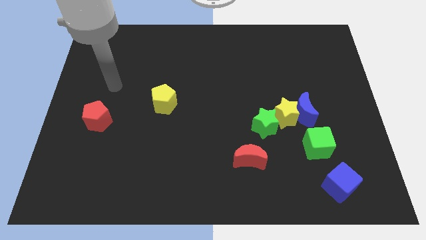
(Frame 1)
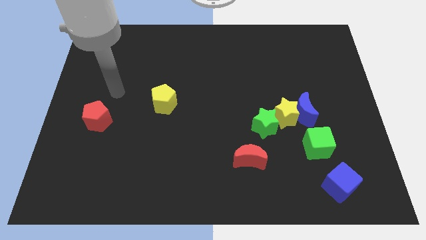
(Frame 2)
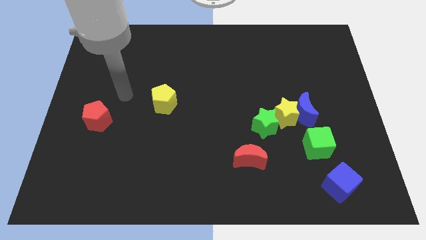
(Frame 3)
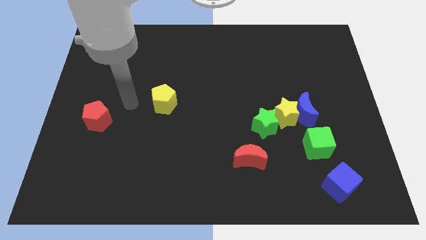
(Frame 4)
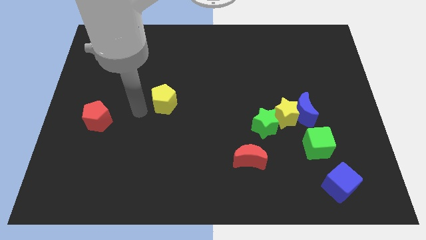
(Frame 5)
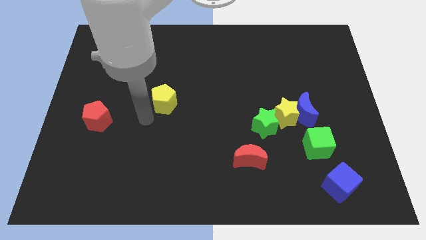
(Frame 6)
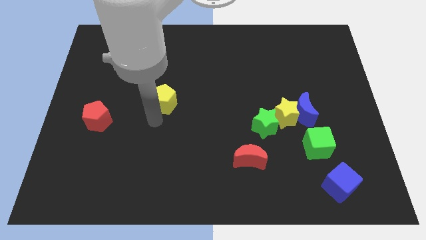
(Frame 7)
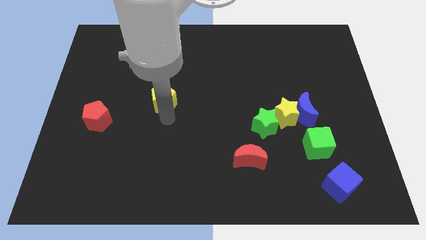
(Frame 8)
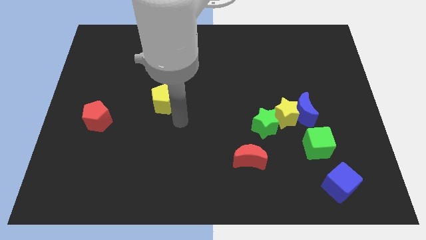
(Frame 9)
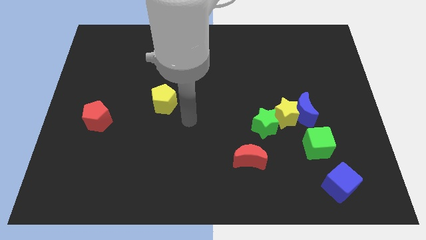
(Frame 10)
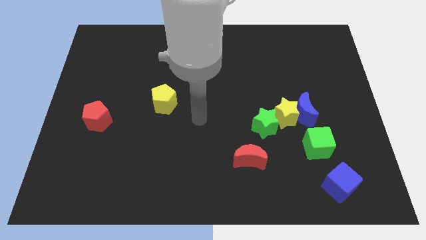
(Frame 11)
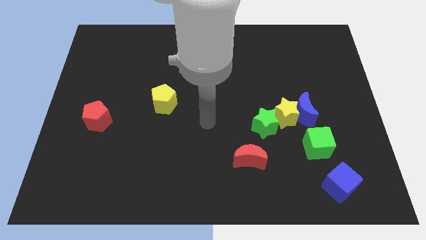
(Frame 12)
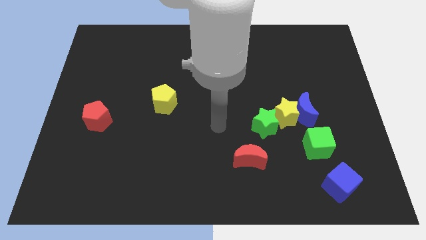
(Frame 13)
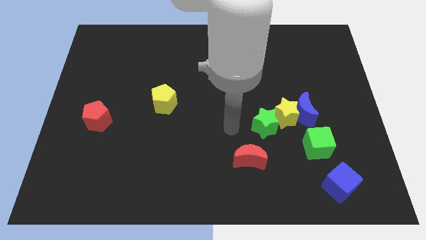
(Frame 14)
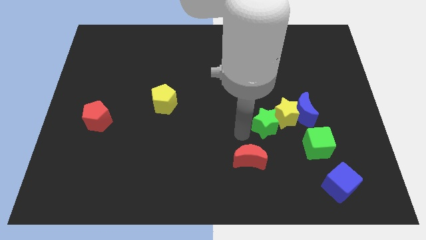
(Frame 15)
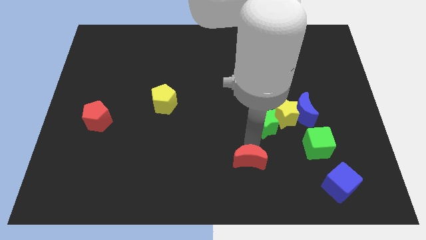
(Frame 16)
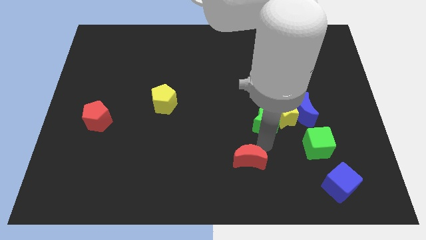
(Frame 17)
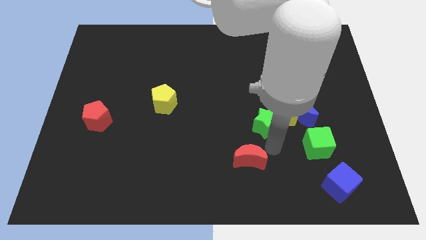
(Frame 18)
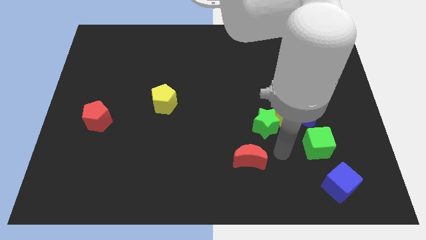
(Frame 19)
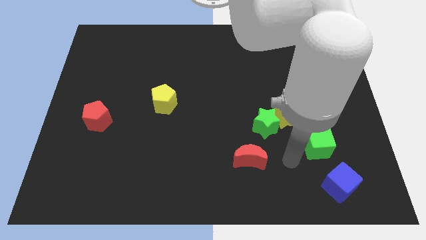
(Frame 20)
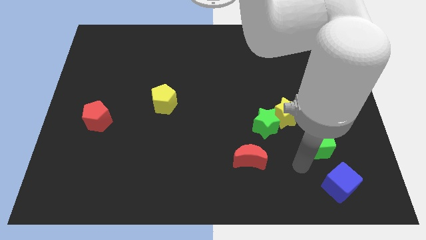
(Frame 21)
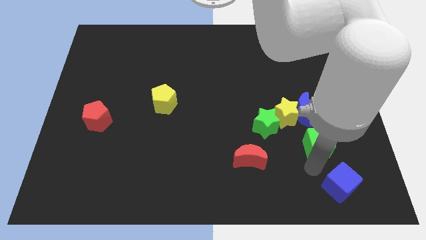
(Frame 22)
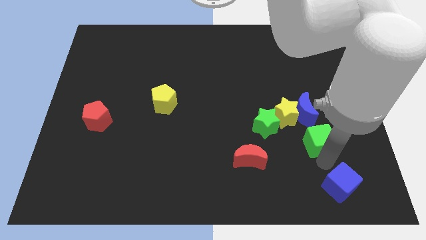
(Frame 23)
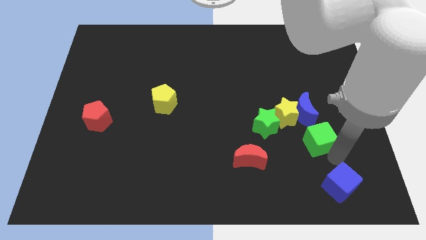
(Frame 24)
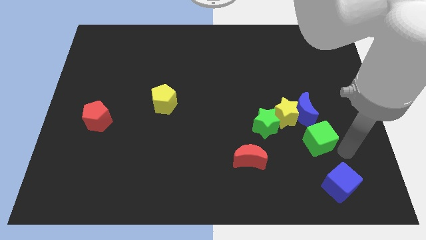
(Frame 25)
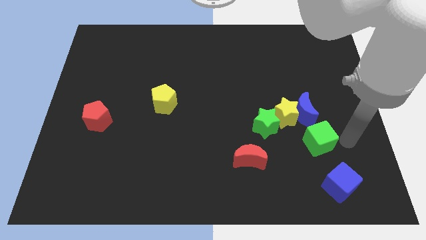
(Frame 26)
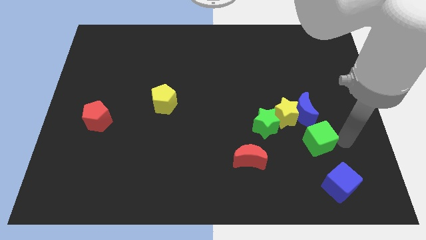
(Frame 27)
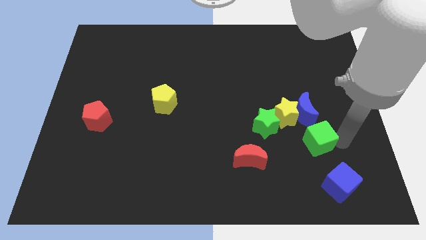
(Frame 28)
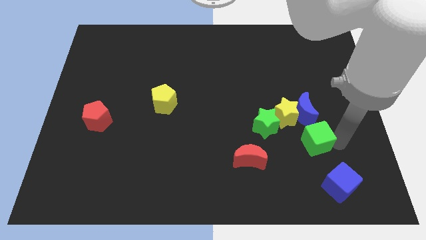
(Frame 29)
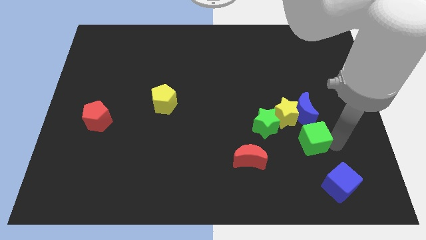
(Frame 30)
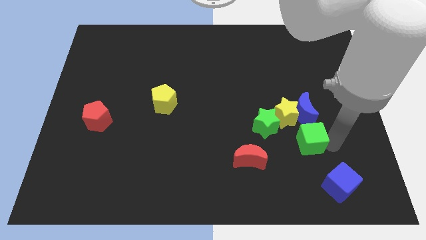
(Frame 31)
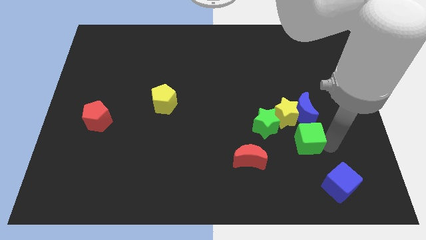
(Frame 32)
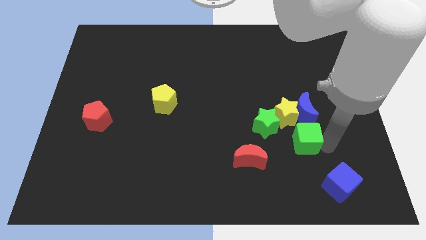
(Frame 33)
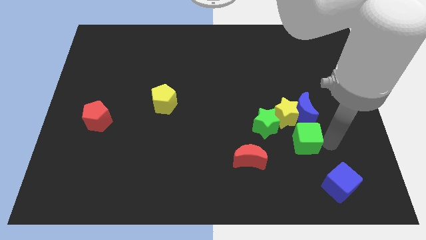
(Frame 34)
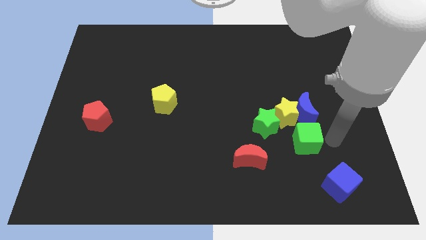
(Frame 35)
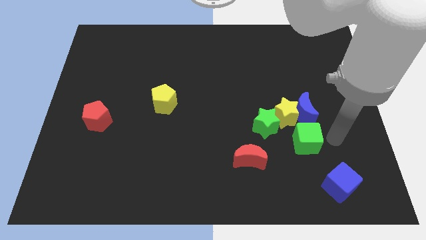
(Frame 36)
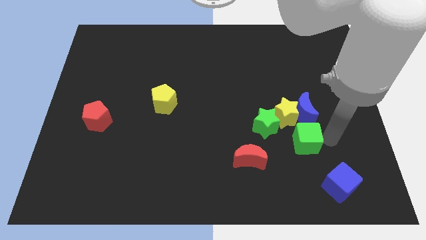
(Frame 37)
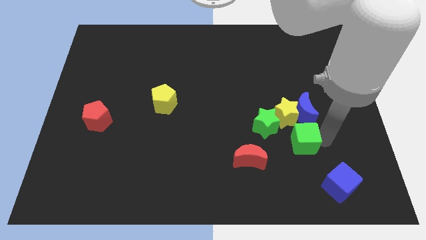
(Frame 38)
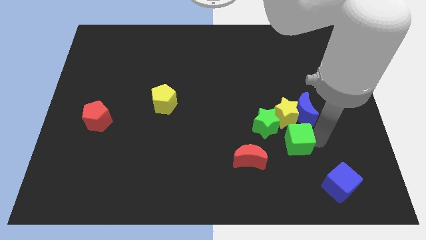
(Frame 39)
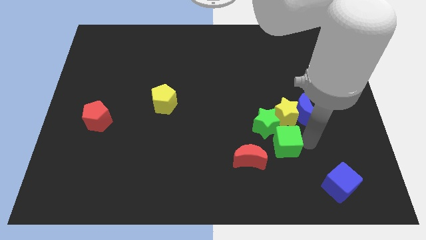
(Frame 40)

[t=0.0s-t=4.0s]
slide the green cube left a bit

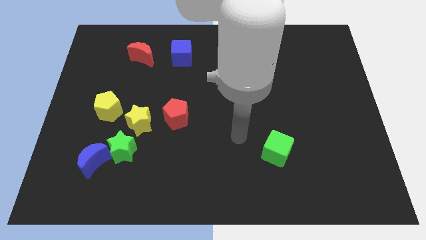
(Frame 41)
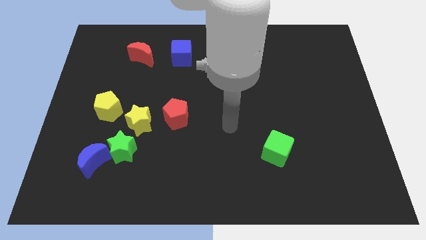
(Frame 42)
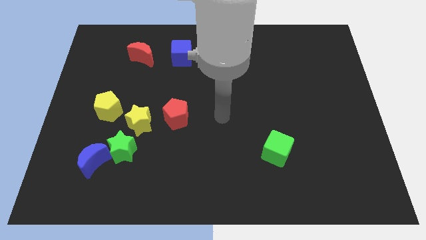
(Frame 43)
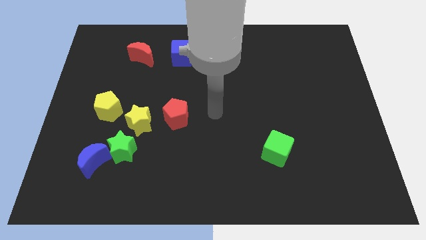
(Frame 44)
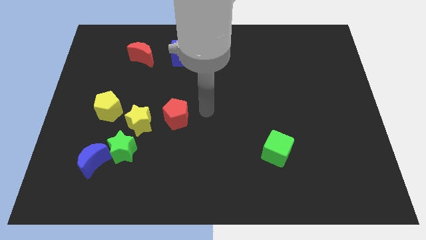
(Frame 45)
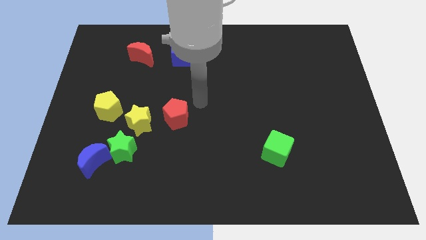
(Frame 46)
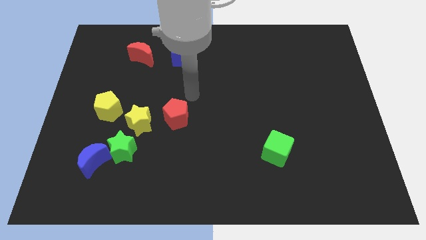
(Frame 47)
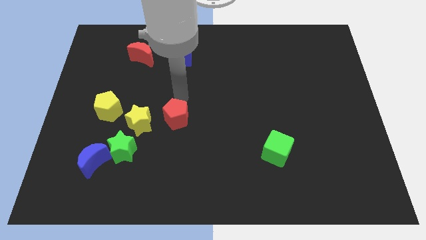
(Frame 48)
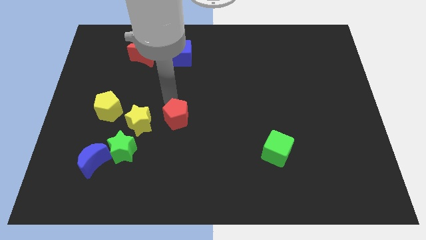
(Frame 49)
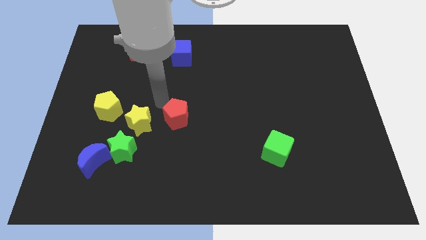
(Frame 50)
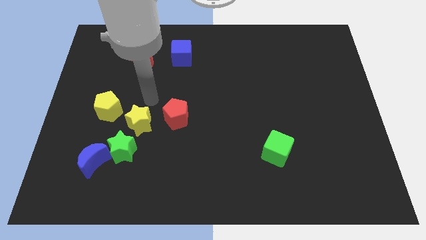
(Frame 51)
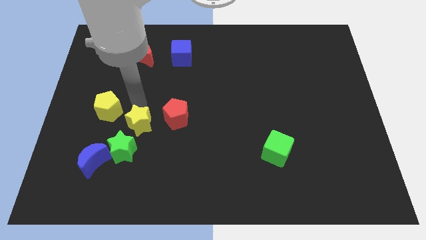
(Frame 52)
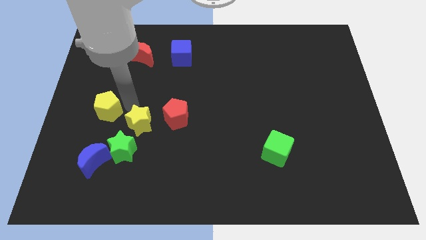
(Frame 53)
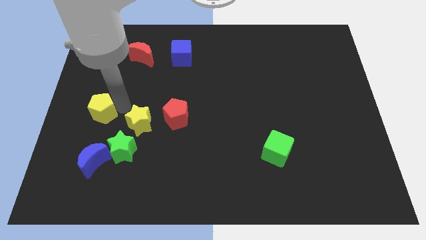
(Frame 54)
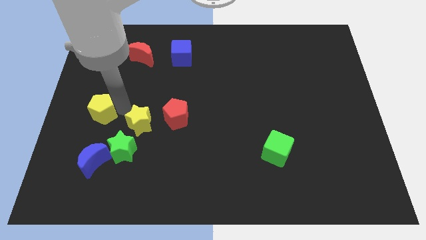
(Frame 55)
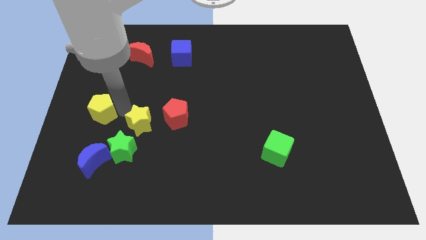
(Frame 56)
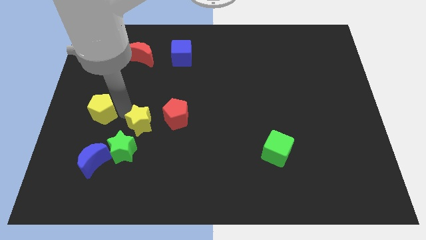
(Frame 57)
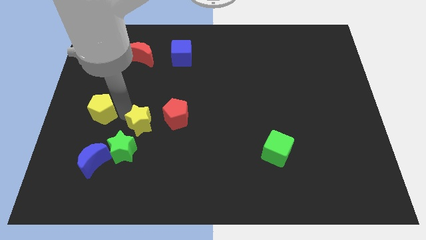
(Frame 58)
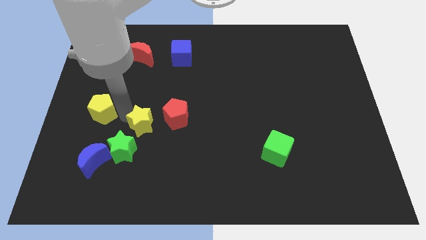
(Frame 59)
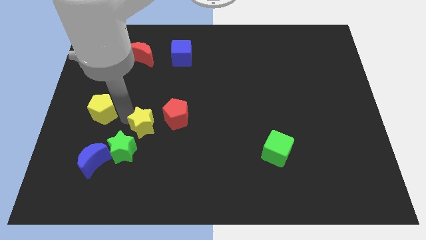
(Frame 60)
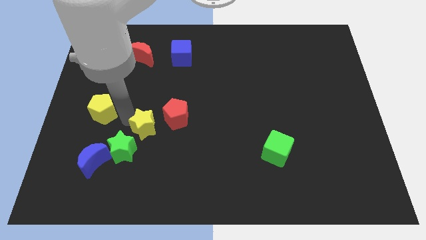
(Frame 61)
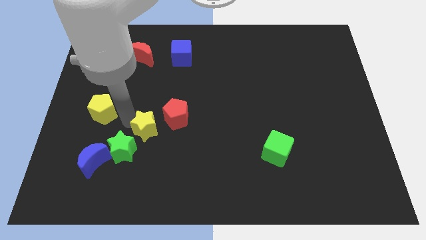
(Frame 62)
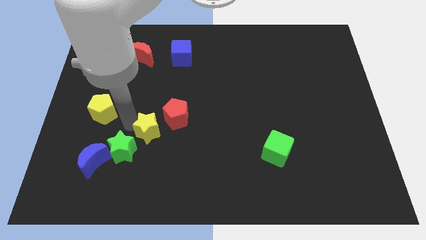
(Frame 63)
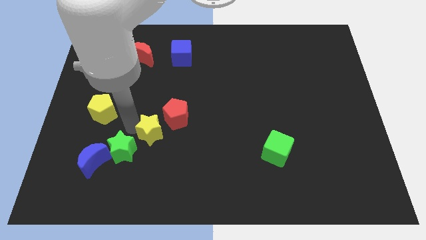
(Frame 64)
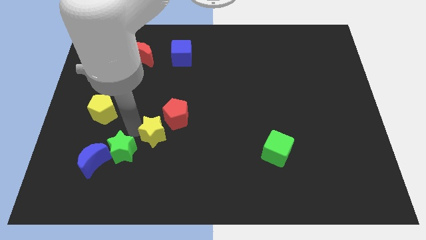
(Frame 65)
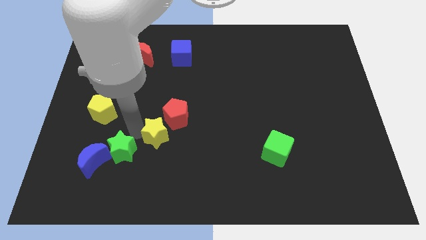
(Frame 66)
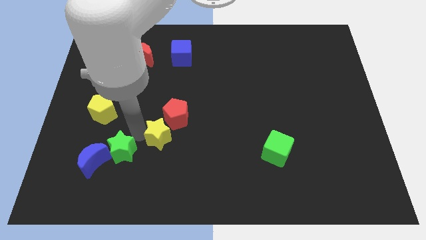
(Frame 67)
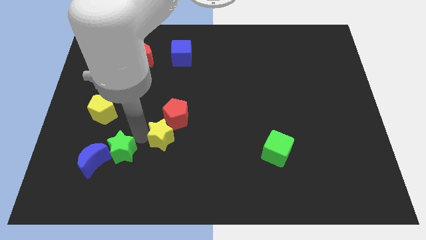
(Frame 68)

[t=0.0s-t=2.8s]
slide the yellow star down and then right slightly

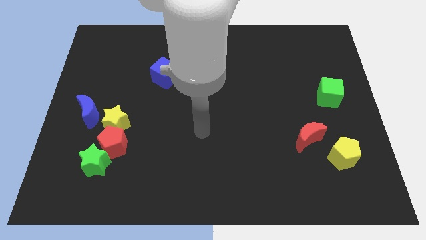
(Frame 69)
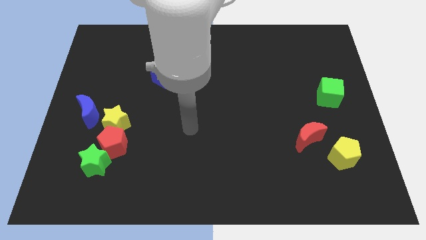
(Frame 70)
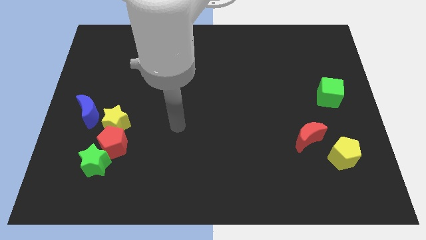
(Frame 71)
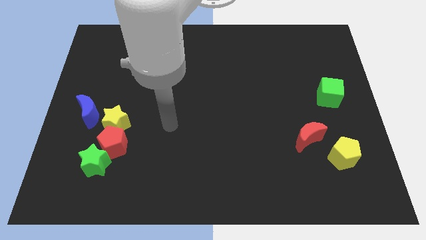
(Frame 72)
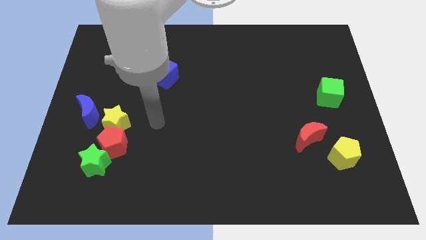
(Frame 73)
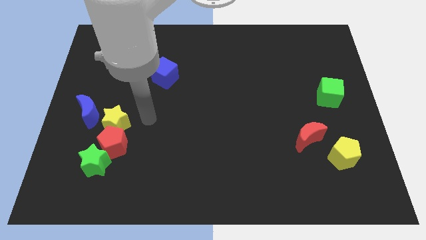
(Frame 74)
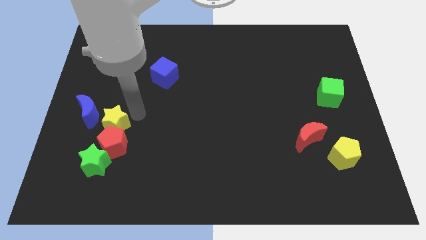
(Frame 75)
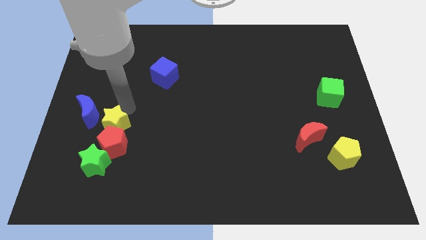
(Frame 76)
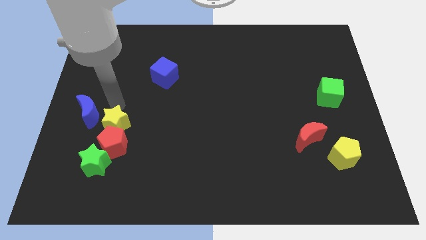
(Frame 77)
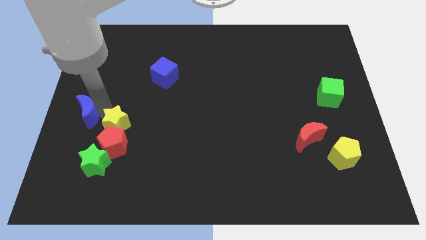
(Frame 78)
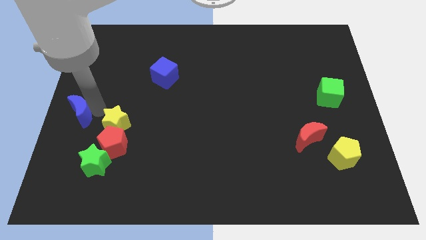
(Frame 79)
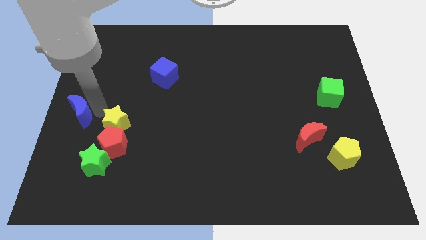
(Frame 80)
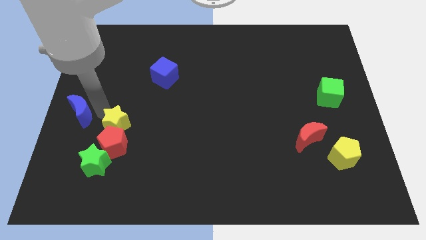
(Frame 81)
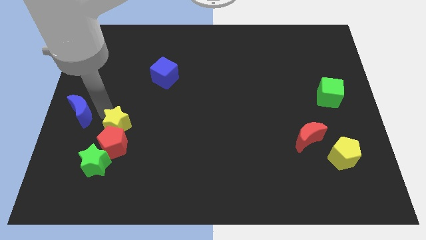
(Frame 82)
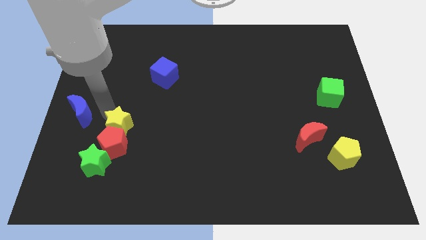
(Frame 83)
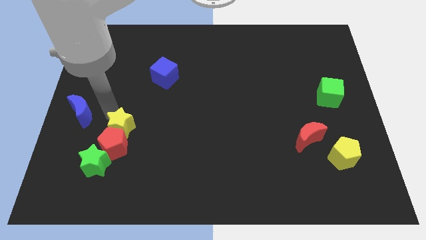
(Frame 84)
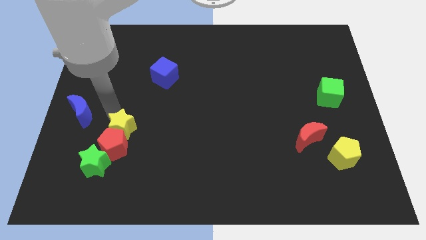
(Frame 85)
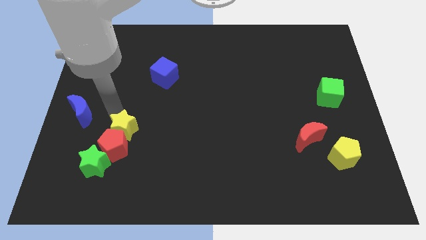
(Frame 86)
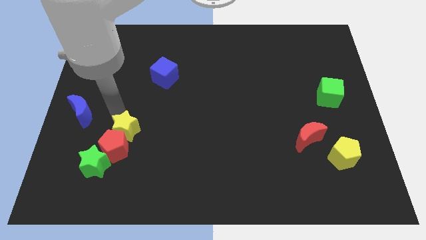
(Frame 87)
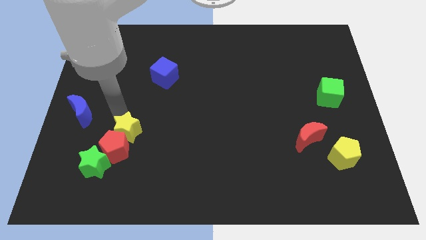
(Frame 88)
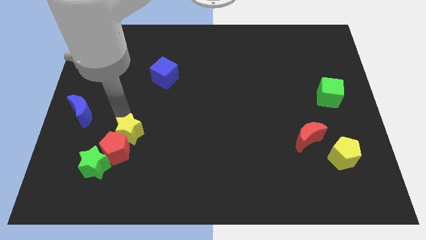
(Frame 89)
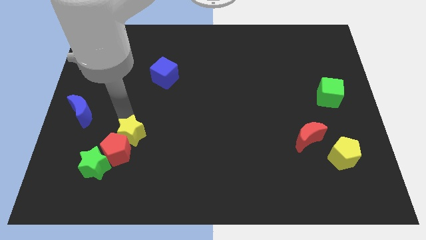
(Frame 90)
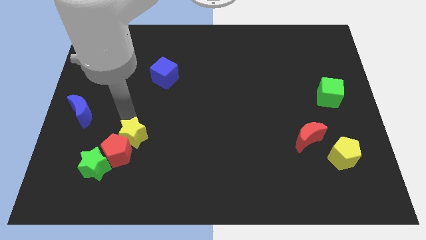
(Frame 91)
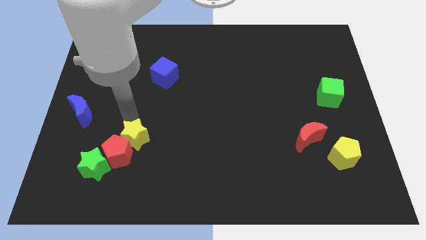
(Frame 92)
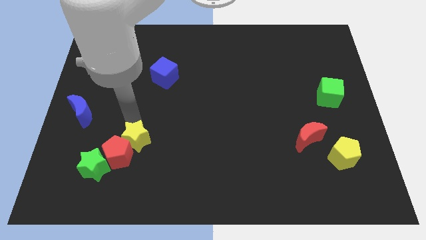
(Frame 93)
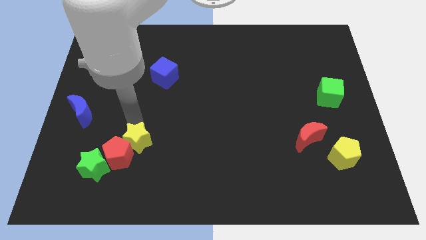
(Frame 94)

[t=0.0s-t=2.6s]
slightly slide the yellow star downwards and to the right
